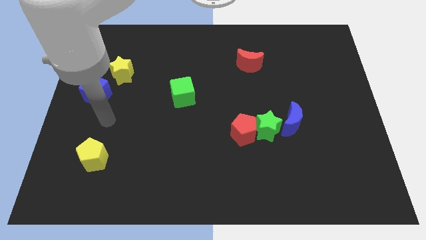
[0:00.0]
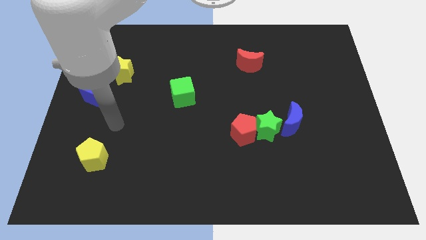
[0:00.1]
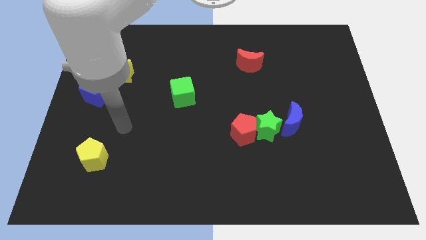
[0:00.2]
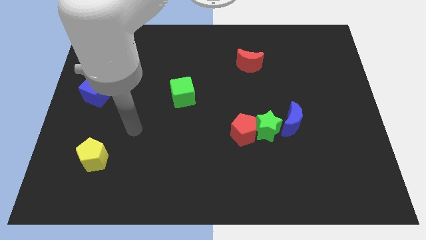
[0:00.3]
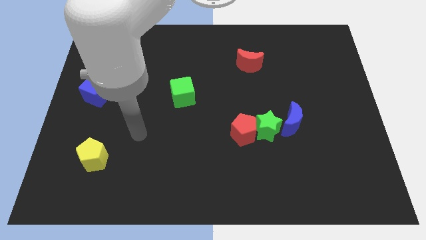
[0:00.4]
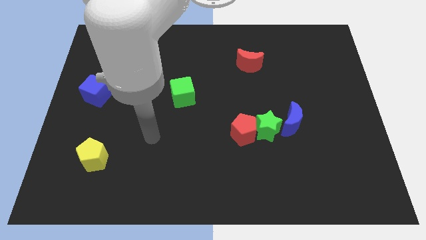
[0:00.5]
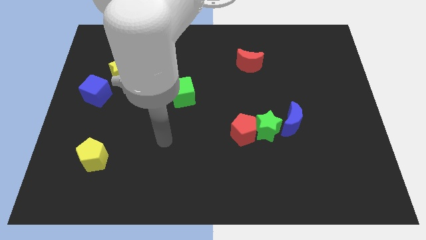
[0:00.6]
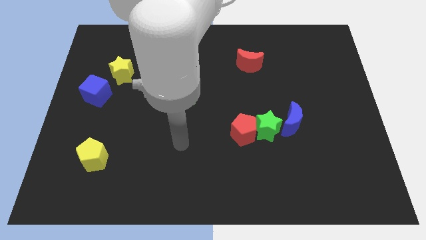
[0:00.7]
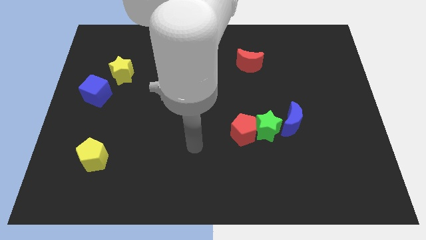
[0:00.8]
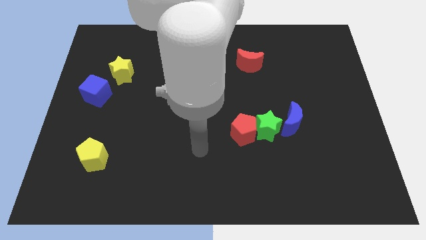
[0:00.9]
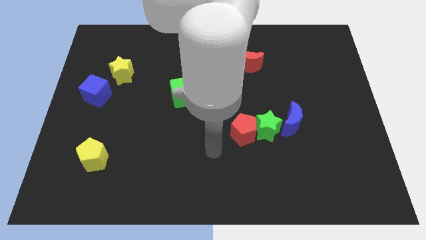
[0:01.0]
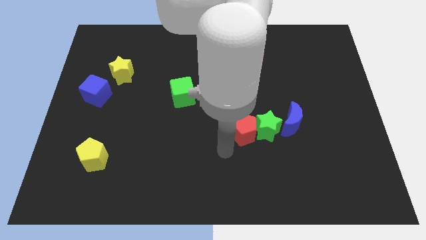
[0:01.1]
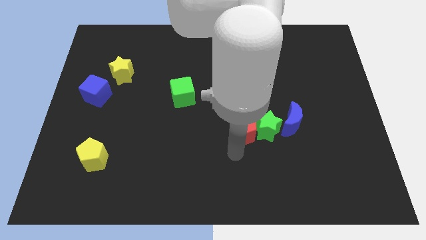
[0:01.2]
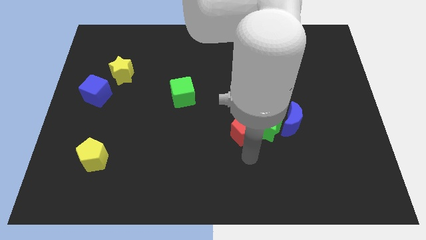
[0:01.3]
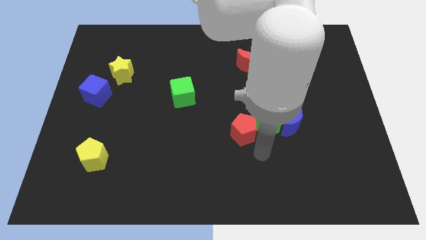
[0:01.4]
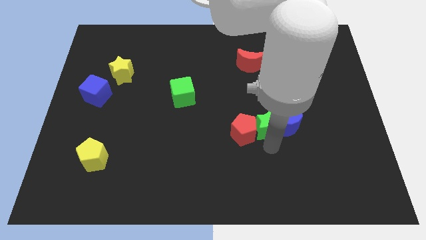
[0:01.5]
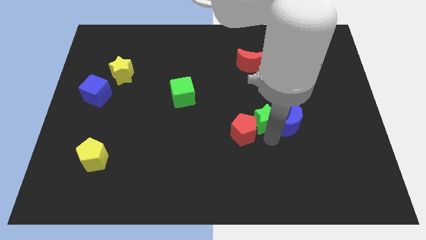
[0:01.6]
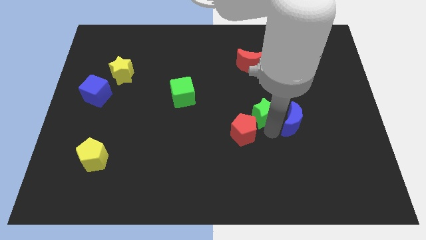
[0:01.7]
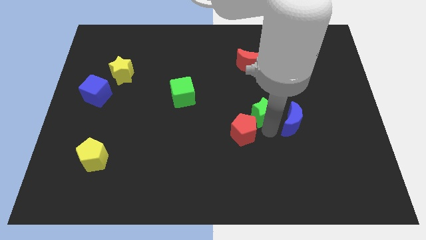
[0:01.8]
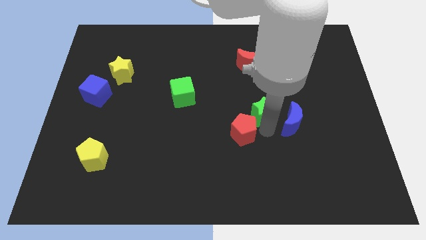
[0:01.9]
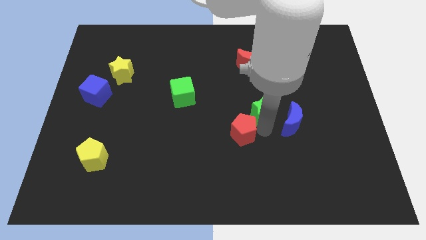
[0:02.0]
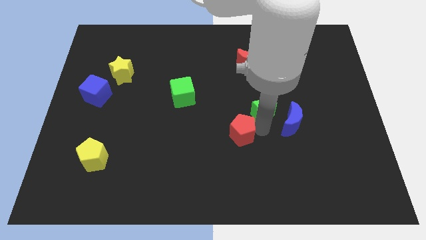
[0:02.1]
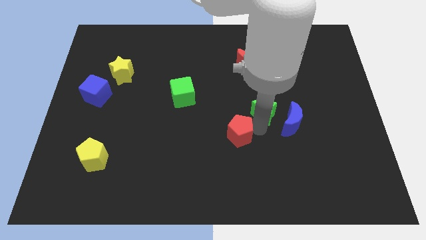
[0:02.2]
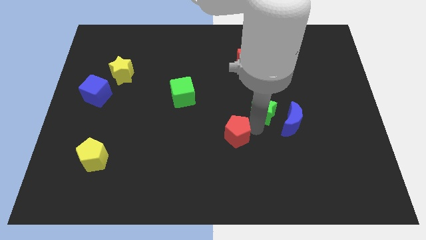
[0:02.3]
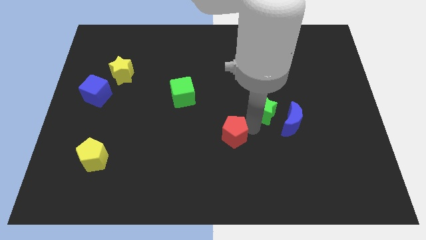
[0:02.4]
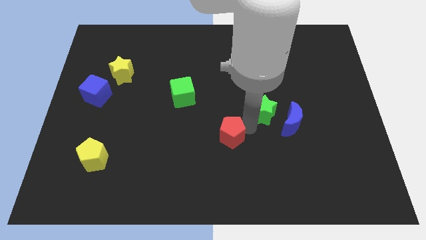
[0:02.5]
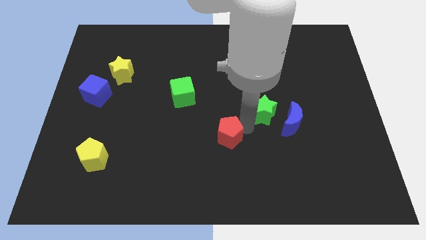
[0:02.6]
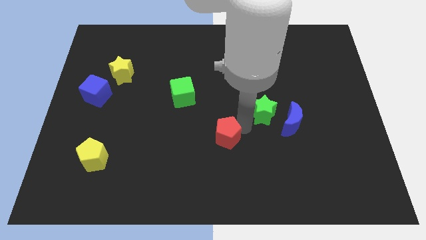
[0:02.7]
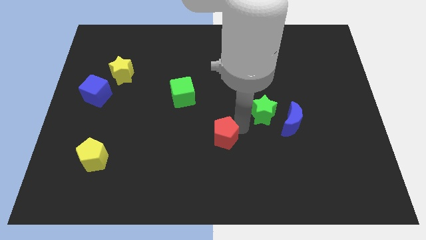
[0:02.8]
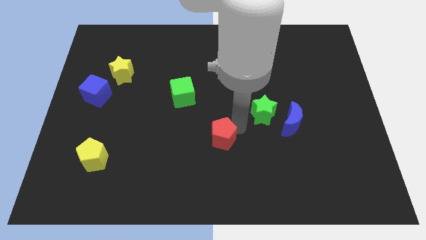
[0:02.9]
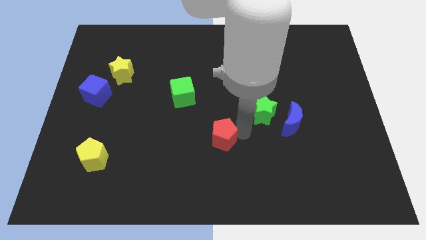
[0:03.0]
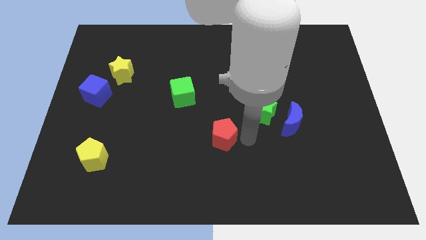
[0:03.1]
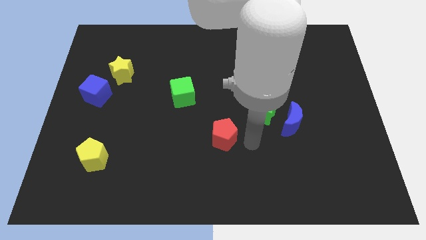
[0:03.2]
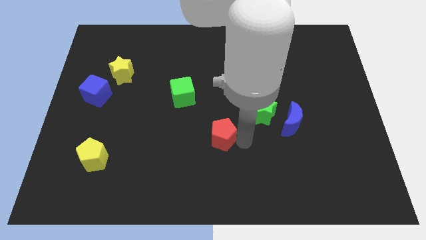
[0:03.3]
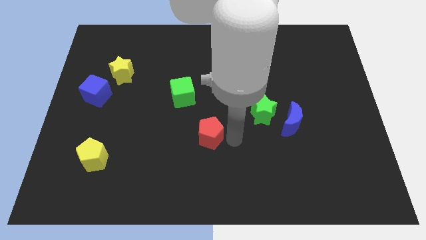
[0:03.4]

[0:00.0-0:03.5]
push the red pentagon to the left slightly

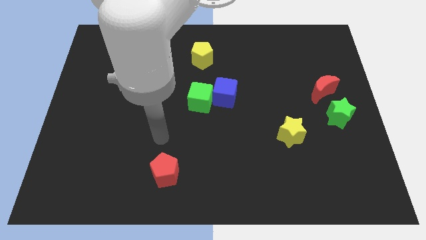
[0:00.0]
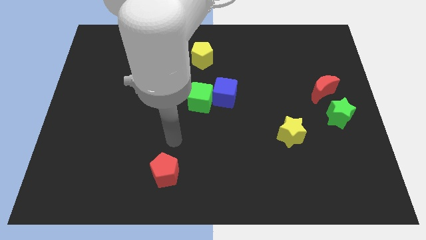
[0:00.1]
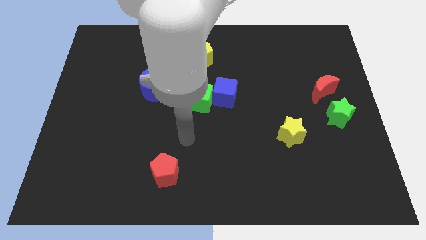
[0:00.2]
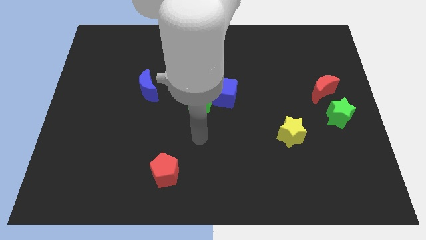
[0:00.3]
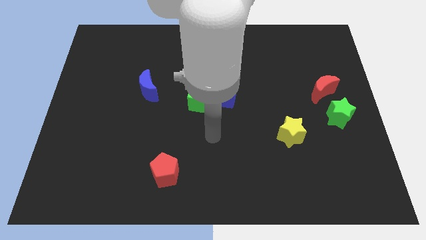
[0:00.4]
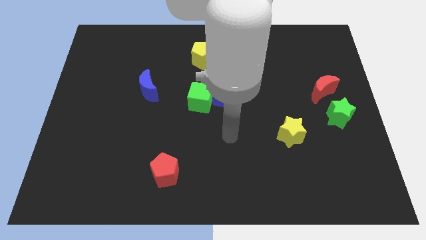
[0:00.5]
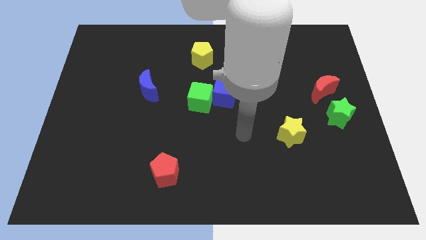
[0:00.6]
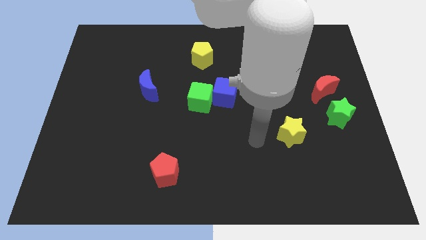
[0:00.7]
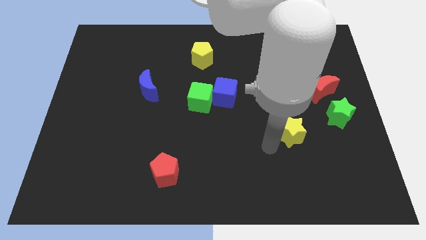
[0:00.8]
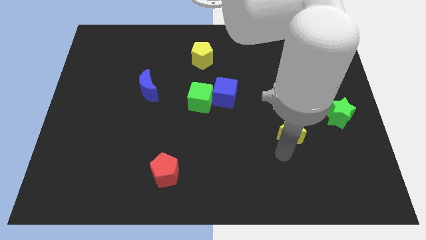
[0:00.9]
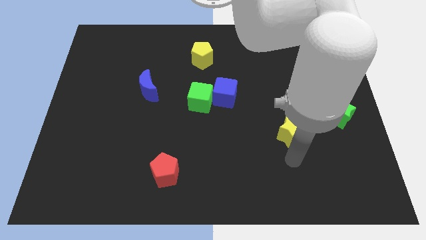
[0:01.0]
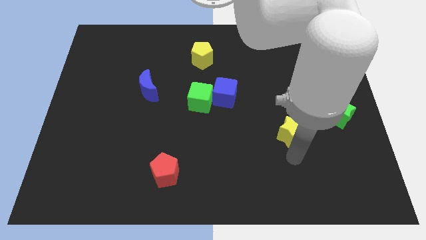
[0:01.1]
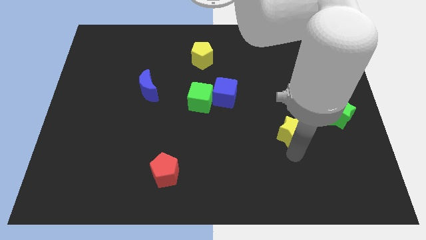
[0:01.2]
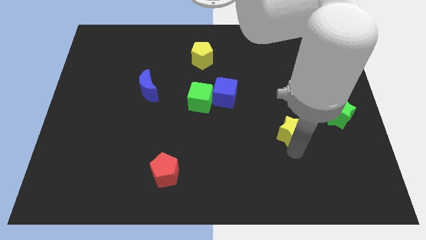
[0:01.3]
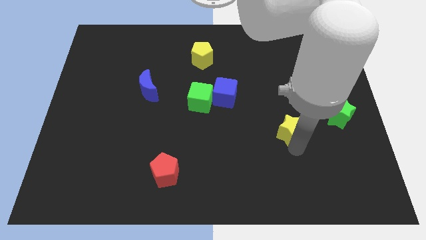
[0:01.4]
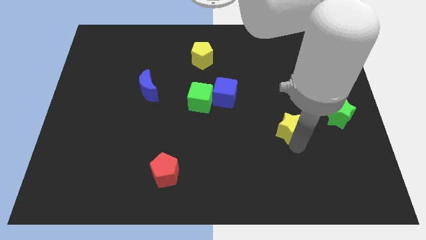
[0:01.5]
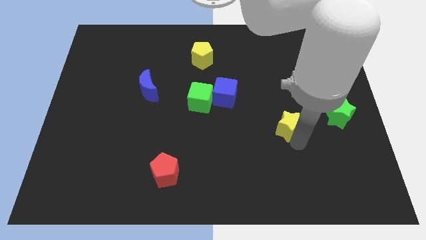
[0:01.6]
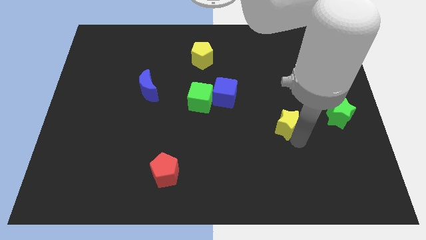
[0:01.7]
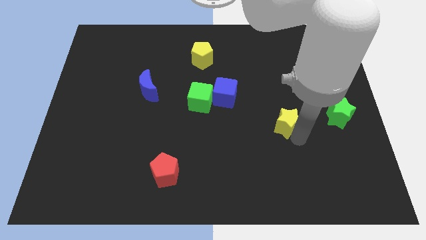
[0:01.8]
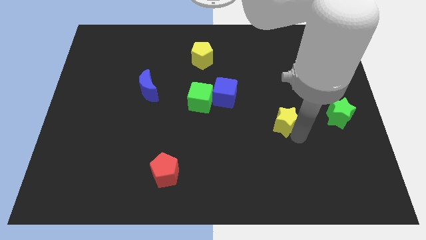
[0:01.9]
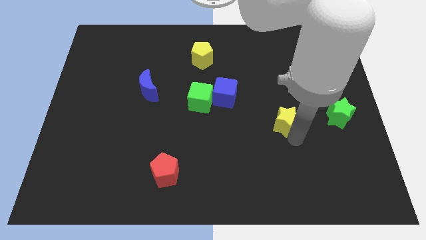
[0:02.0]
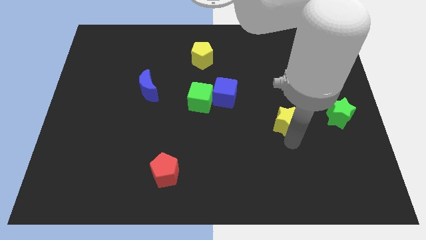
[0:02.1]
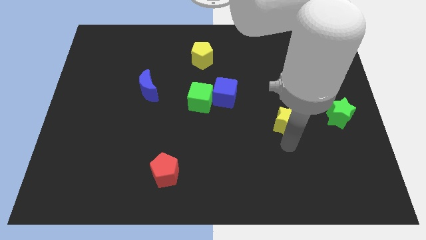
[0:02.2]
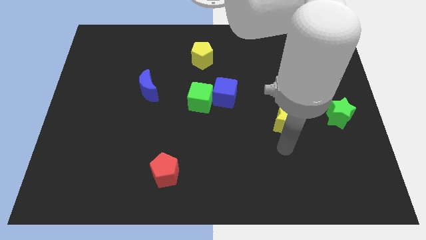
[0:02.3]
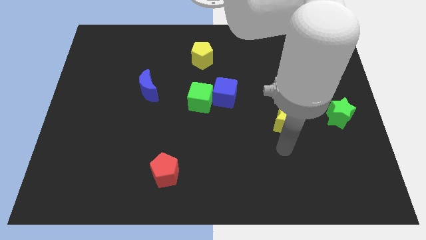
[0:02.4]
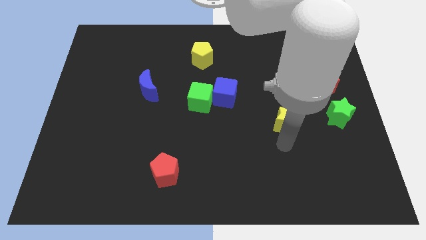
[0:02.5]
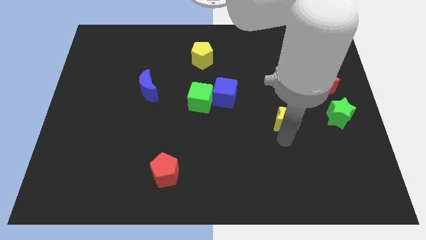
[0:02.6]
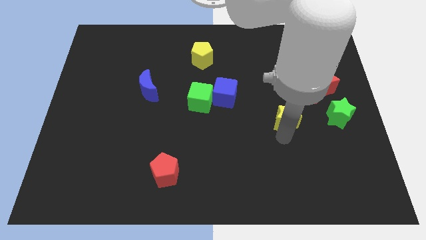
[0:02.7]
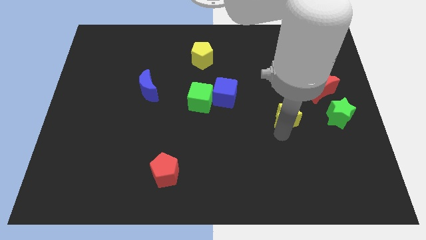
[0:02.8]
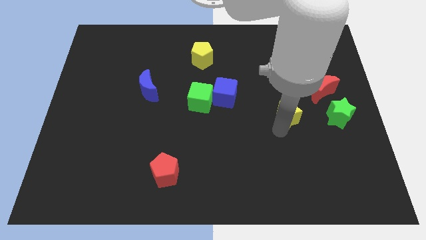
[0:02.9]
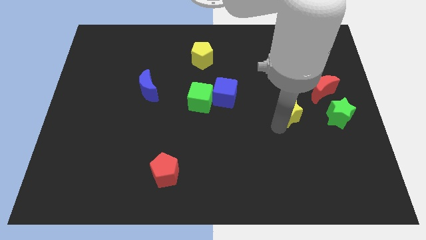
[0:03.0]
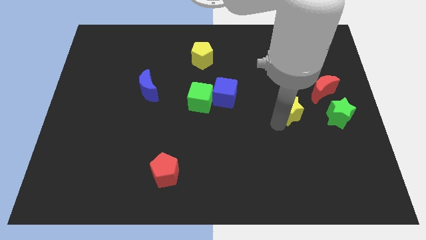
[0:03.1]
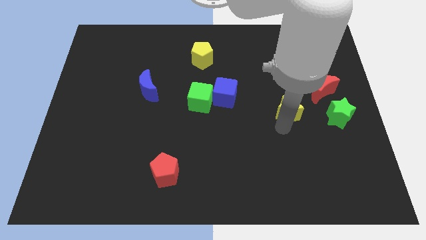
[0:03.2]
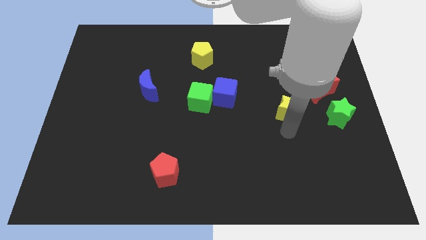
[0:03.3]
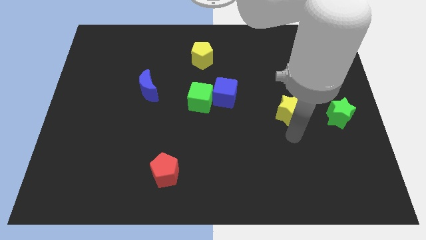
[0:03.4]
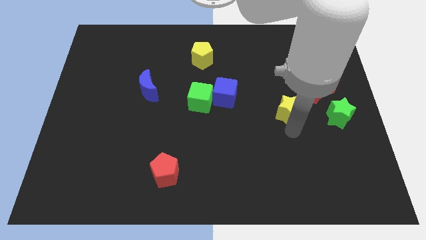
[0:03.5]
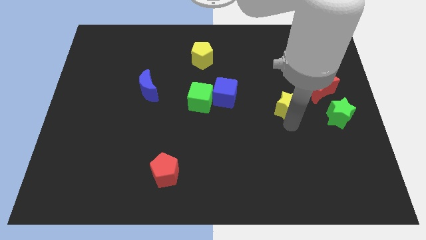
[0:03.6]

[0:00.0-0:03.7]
slightly move the yellow star upwards

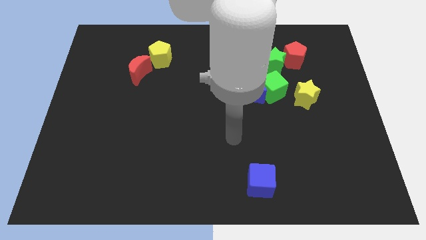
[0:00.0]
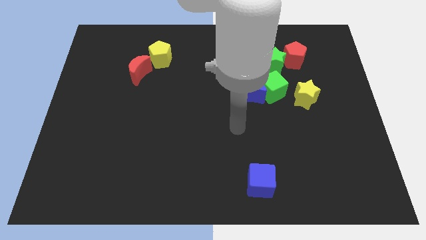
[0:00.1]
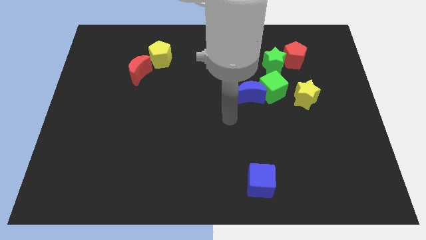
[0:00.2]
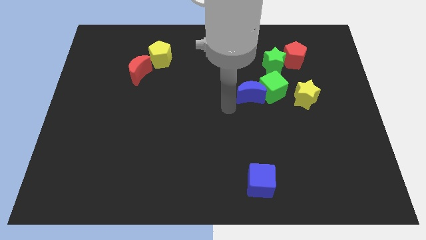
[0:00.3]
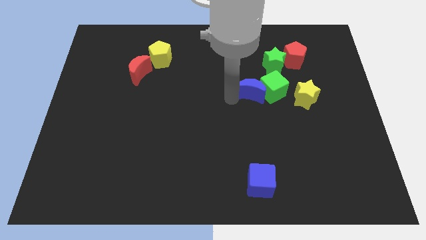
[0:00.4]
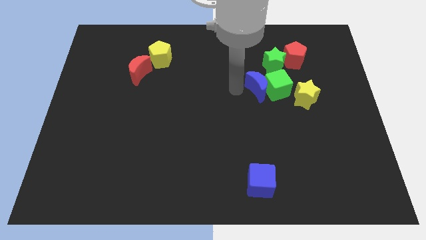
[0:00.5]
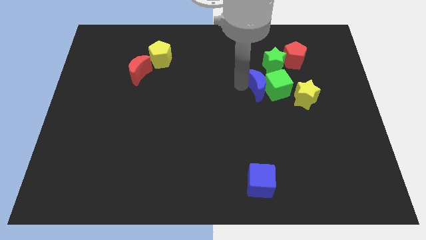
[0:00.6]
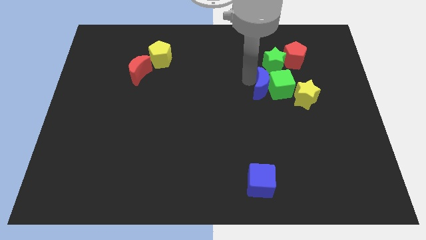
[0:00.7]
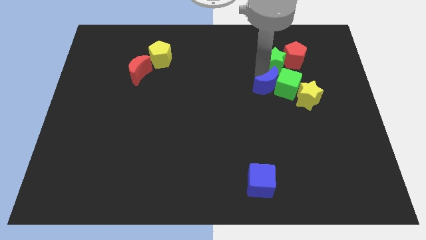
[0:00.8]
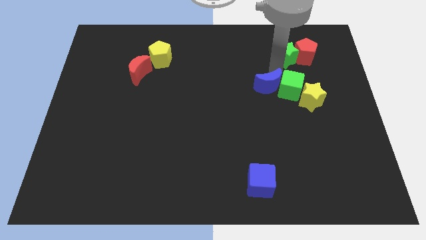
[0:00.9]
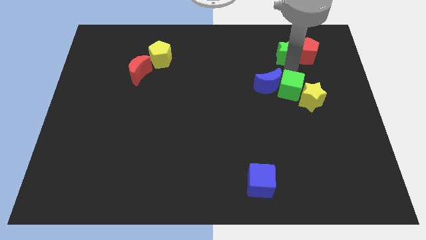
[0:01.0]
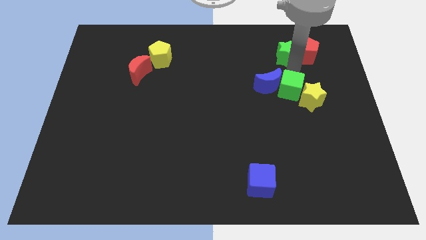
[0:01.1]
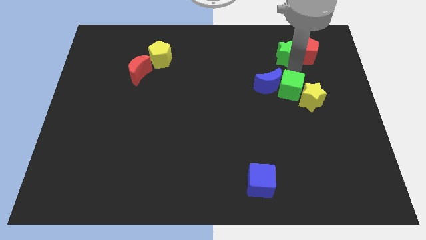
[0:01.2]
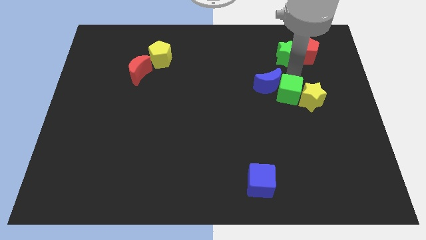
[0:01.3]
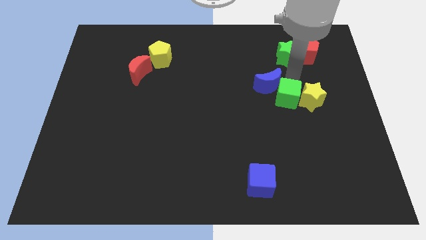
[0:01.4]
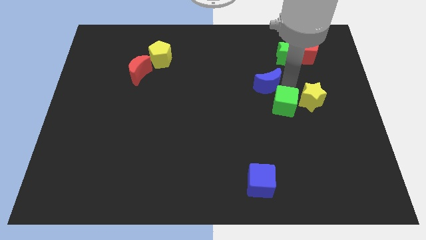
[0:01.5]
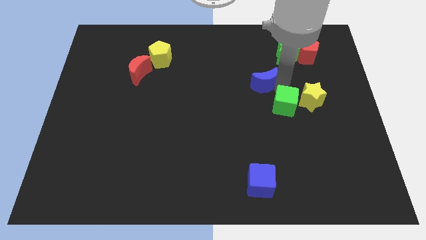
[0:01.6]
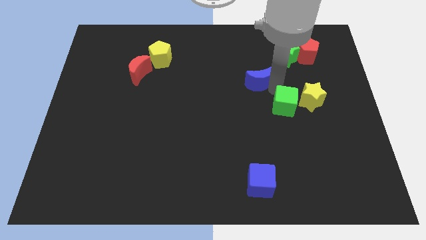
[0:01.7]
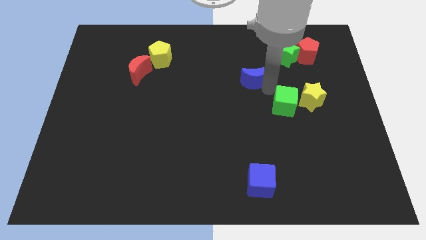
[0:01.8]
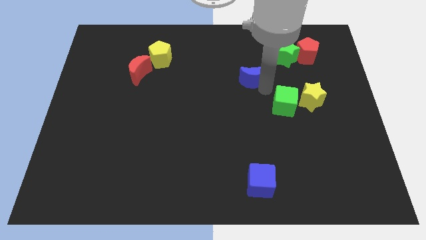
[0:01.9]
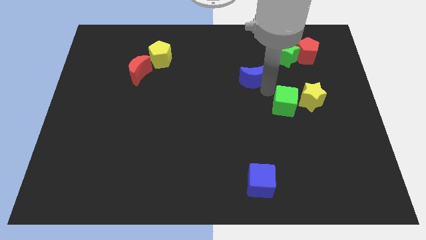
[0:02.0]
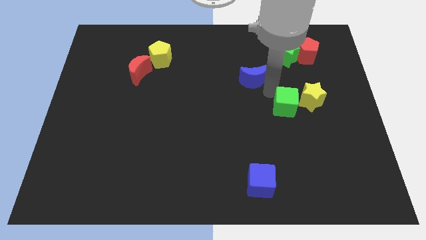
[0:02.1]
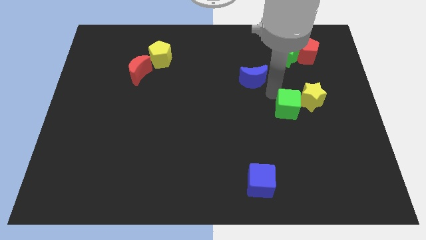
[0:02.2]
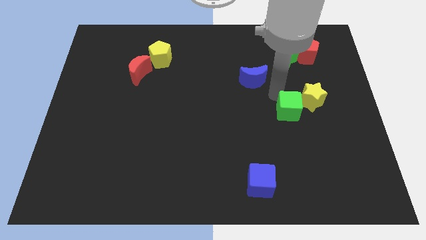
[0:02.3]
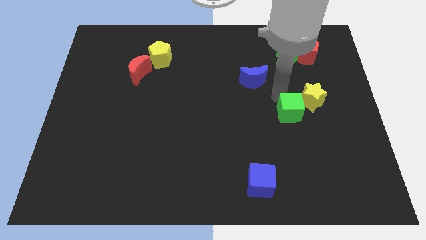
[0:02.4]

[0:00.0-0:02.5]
slide the green cube a bit downwards and to the right diagonally
